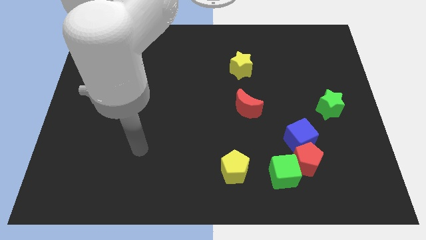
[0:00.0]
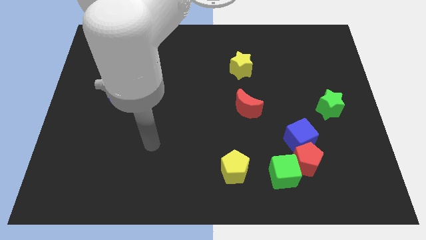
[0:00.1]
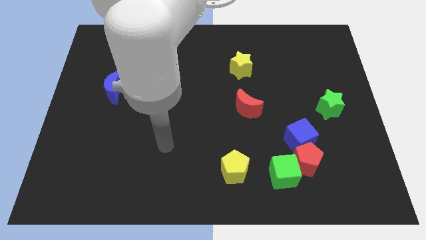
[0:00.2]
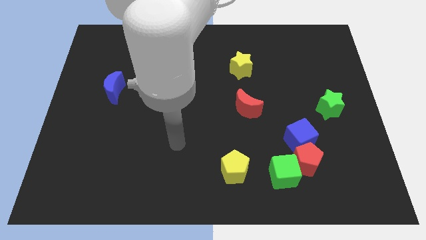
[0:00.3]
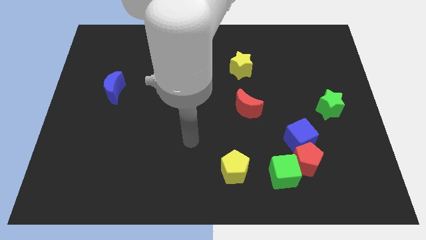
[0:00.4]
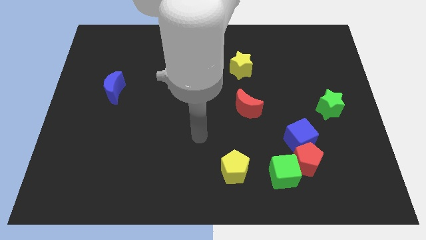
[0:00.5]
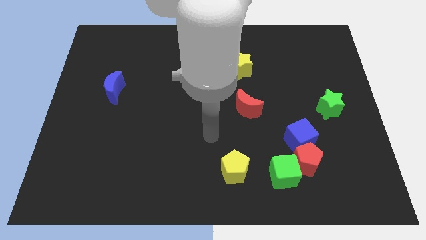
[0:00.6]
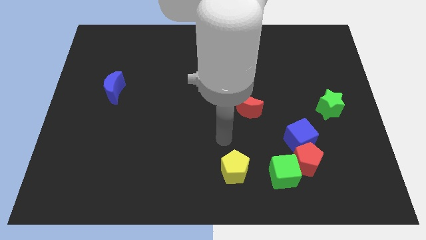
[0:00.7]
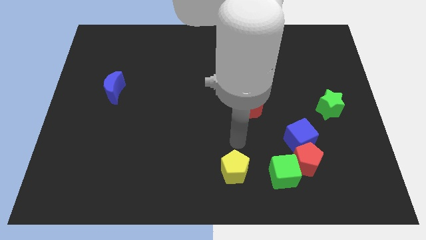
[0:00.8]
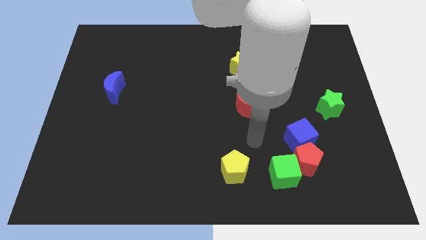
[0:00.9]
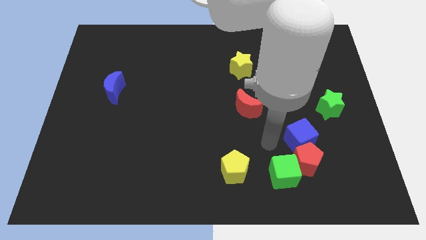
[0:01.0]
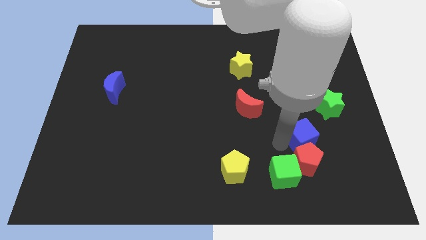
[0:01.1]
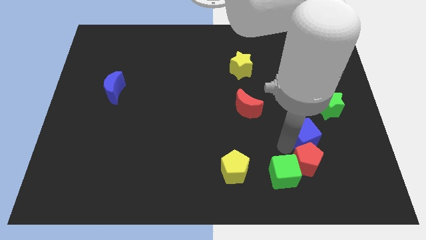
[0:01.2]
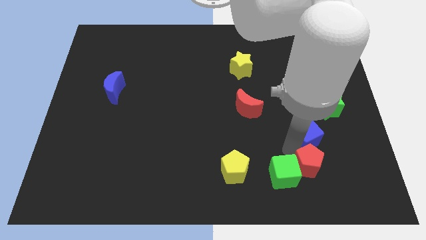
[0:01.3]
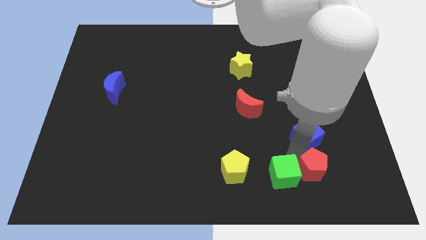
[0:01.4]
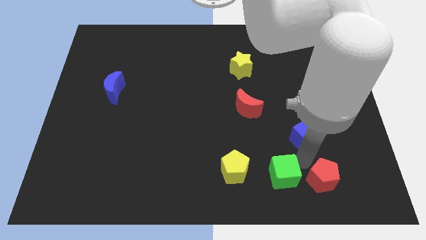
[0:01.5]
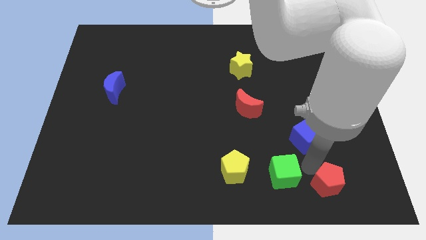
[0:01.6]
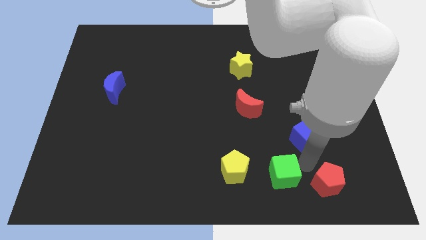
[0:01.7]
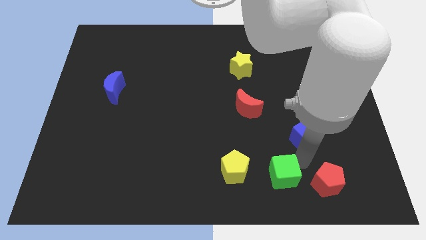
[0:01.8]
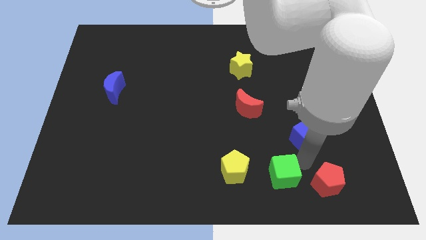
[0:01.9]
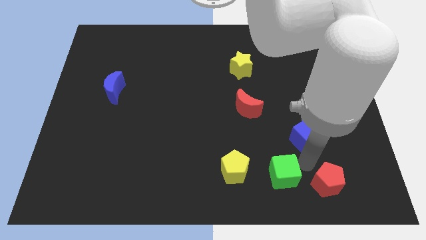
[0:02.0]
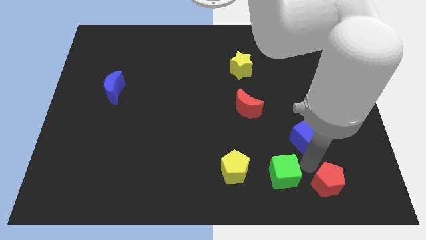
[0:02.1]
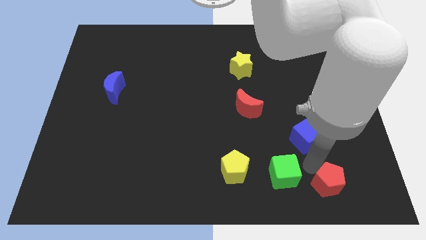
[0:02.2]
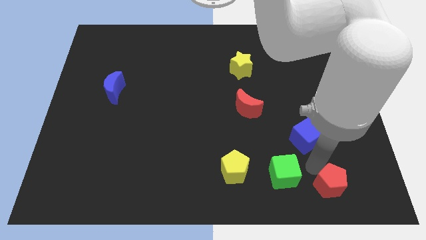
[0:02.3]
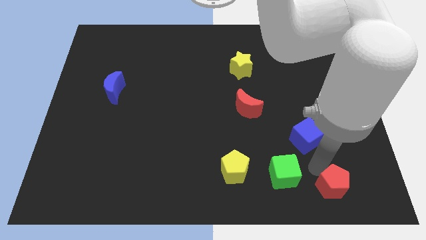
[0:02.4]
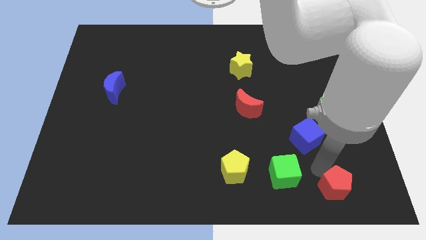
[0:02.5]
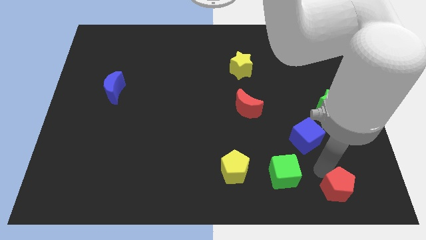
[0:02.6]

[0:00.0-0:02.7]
pull the red pentagon apart from the blue cube and green cube

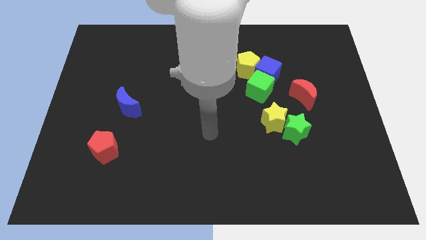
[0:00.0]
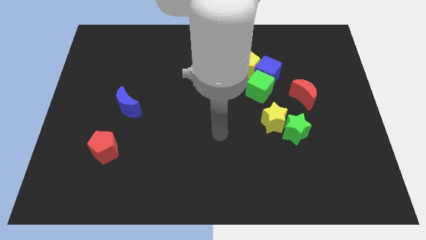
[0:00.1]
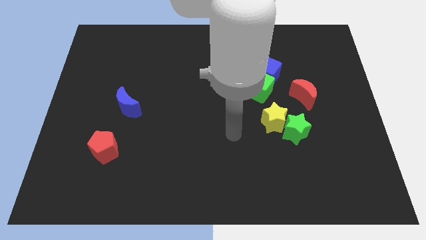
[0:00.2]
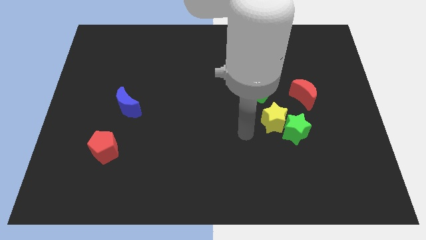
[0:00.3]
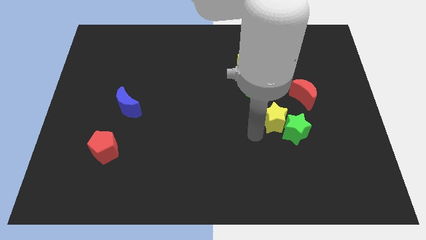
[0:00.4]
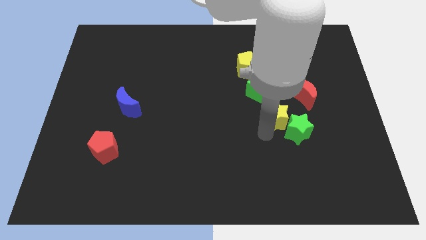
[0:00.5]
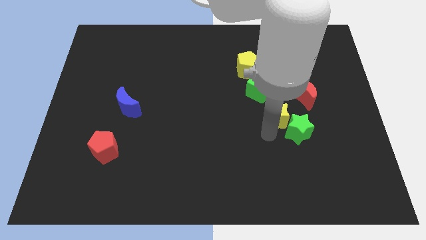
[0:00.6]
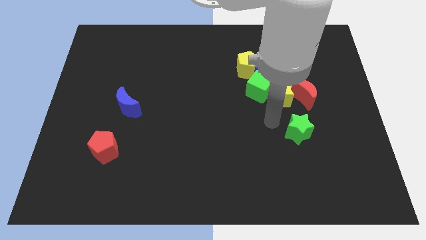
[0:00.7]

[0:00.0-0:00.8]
separate the green star from the yellow star

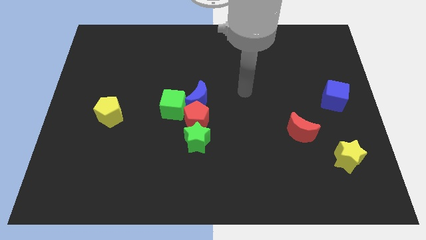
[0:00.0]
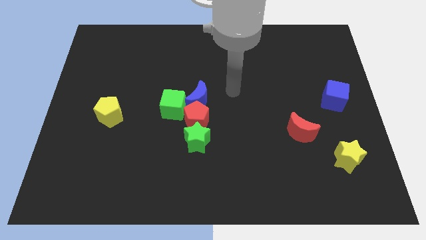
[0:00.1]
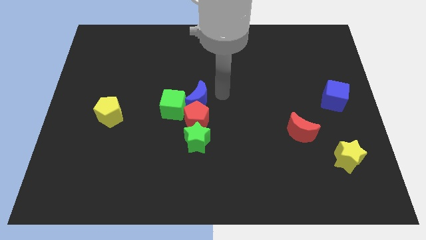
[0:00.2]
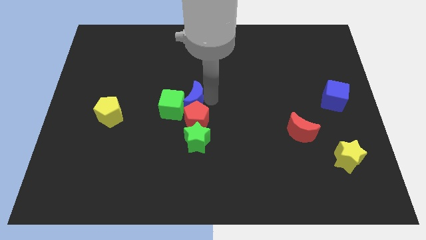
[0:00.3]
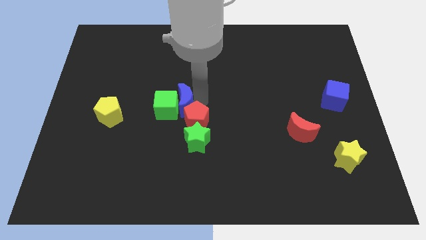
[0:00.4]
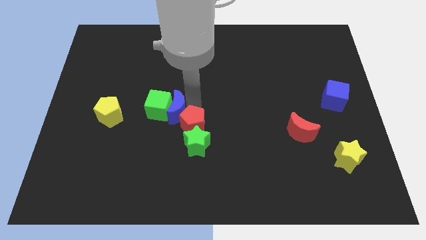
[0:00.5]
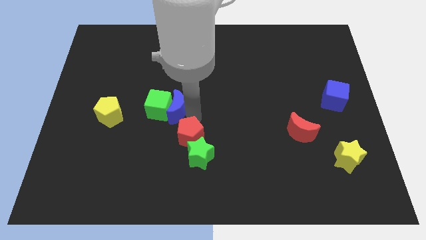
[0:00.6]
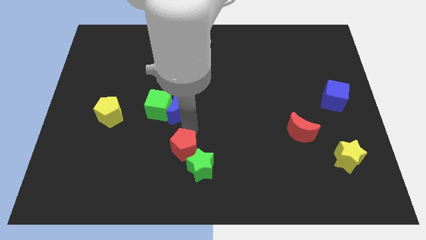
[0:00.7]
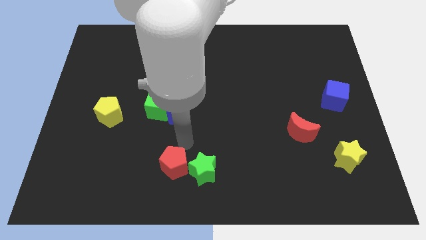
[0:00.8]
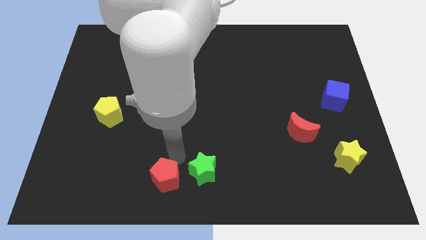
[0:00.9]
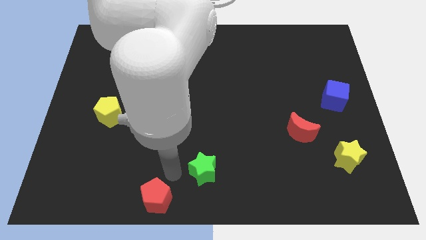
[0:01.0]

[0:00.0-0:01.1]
move the green star away from the red pentagon

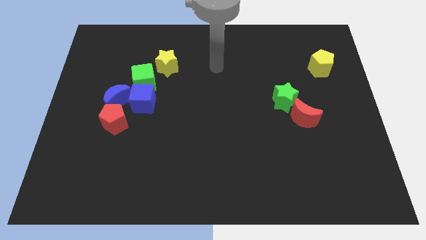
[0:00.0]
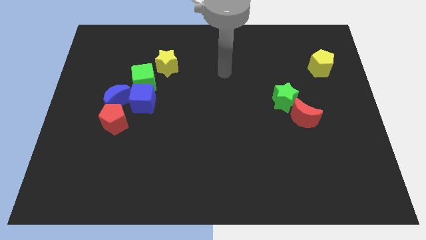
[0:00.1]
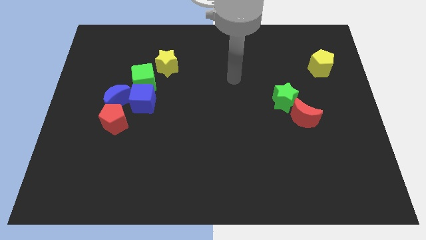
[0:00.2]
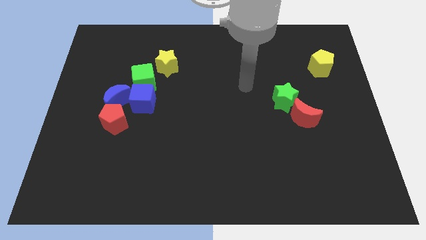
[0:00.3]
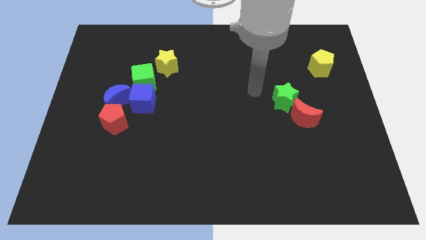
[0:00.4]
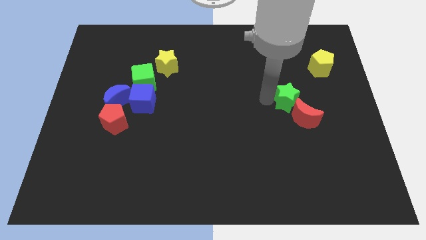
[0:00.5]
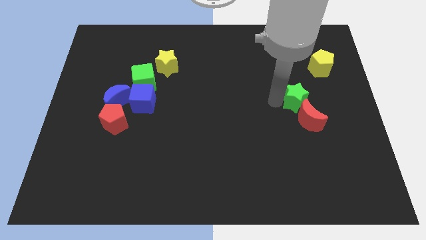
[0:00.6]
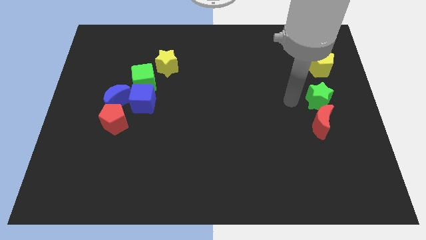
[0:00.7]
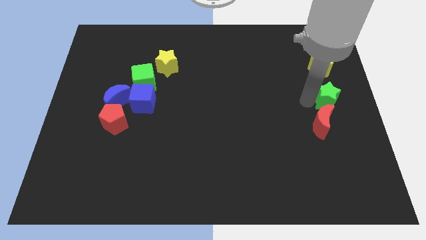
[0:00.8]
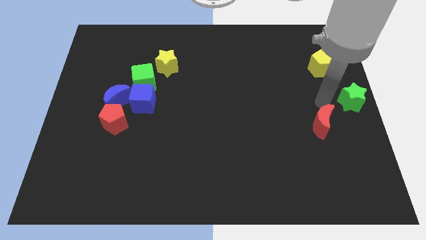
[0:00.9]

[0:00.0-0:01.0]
separate the red moon from the green star

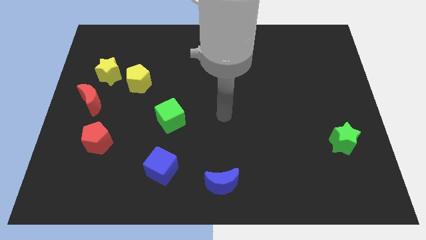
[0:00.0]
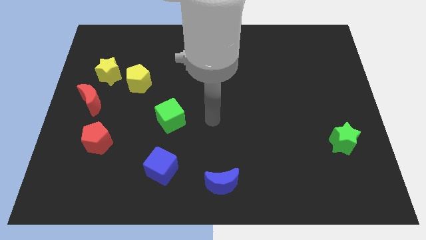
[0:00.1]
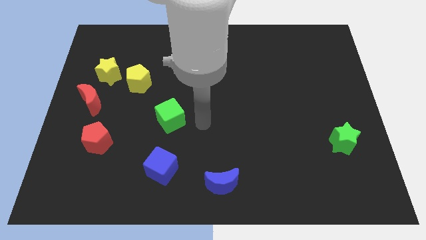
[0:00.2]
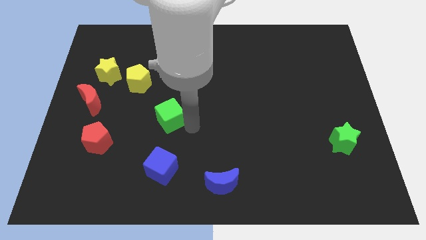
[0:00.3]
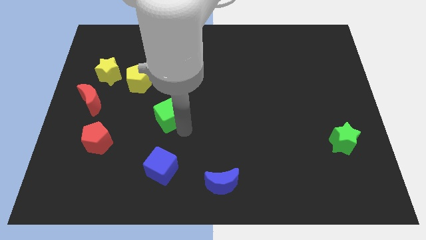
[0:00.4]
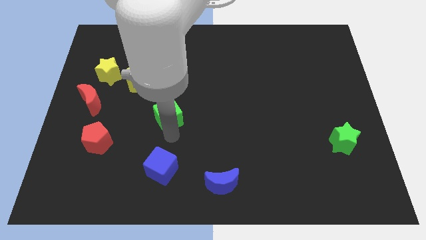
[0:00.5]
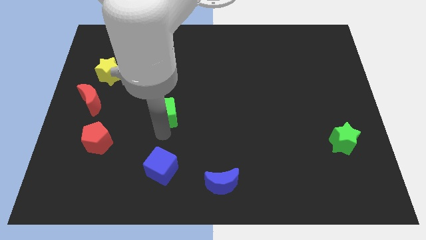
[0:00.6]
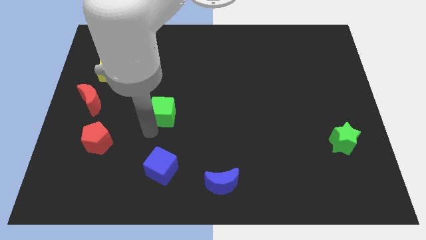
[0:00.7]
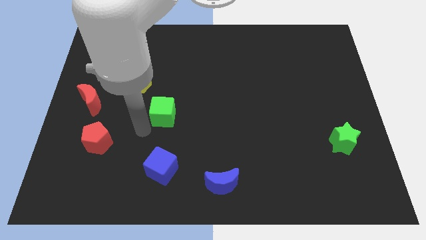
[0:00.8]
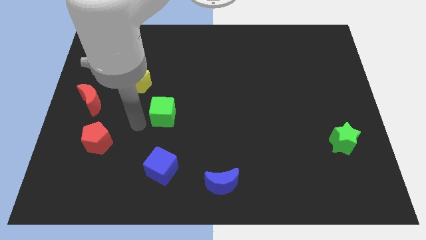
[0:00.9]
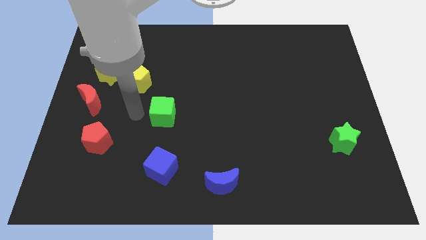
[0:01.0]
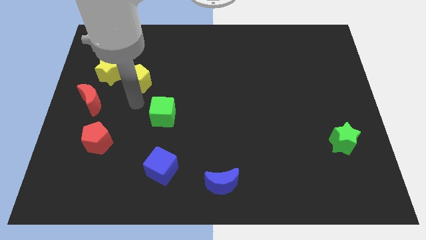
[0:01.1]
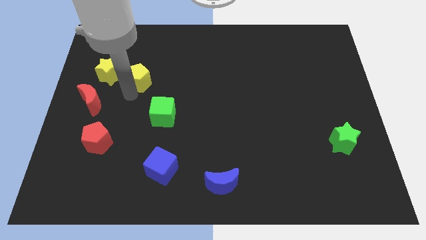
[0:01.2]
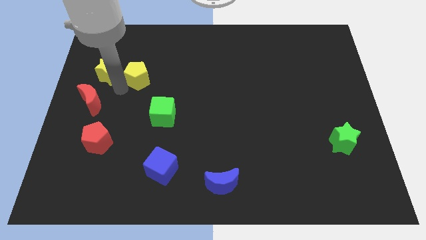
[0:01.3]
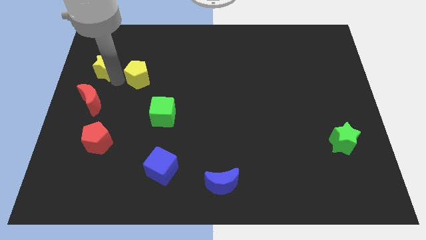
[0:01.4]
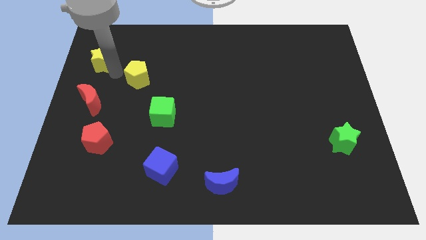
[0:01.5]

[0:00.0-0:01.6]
move the yellow pentagon away from the yellow star

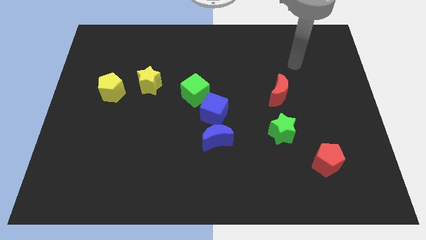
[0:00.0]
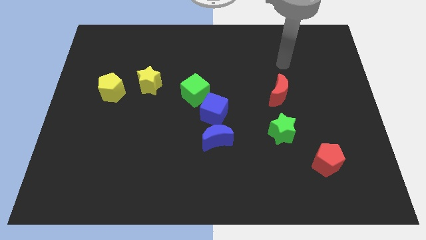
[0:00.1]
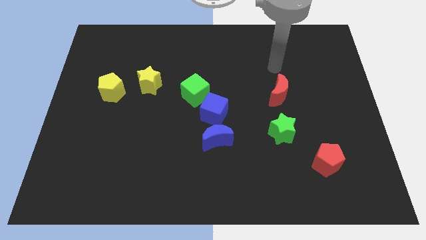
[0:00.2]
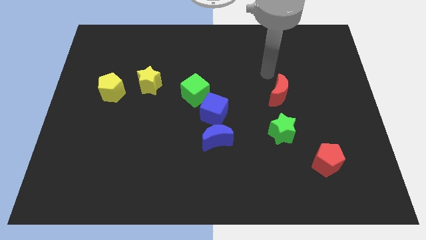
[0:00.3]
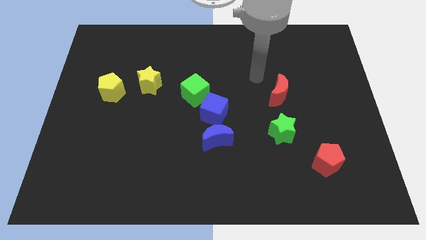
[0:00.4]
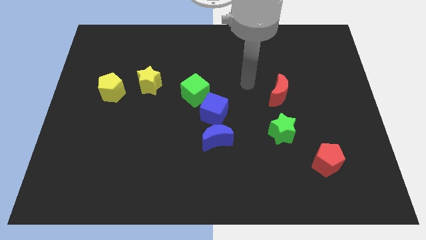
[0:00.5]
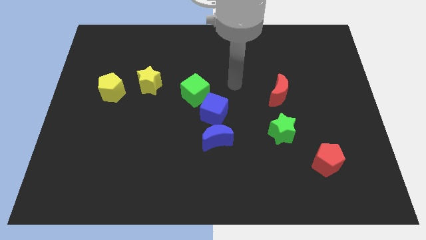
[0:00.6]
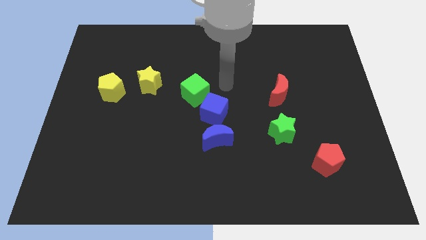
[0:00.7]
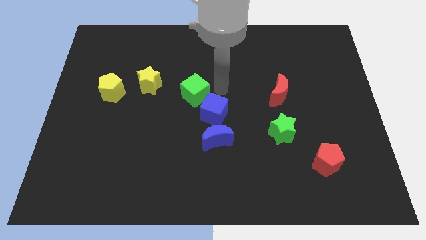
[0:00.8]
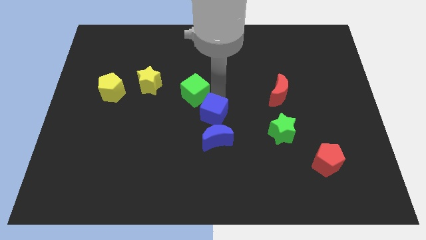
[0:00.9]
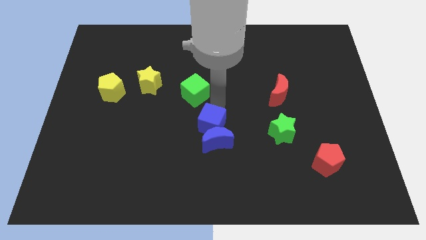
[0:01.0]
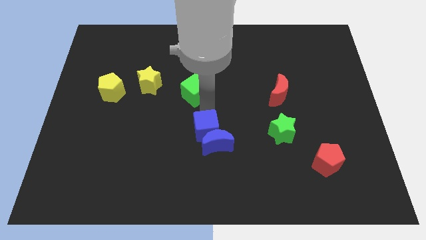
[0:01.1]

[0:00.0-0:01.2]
move the green cube away from the blue cube

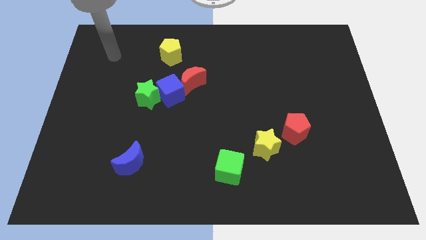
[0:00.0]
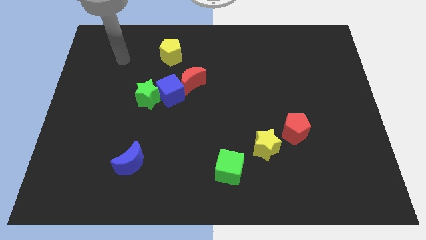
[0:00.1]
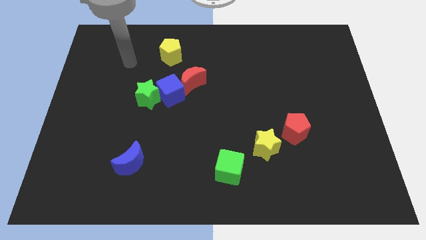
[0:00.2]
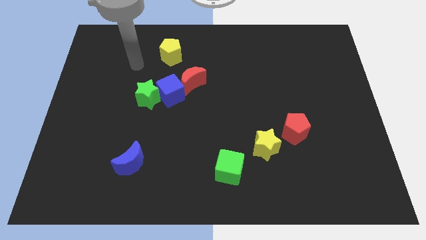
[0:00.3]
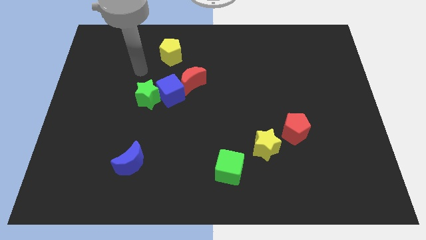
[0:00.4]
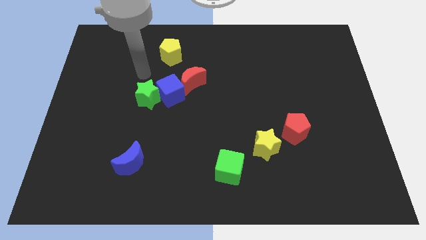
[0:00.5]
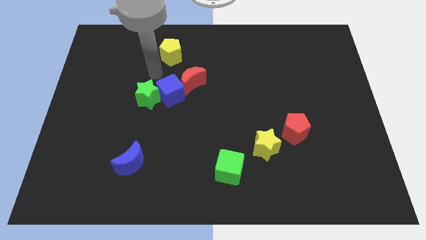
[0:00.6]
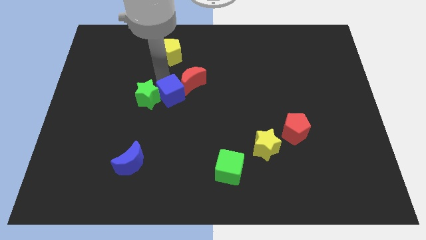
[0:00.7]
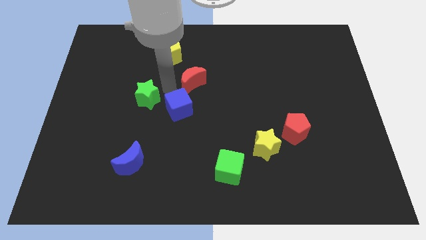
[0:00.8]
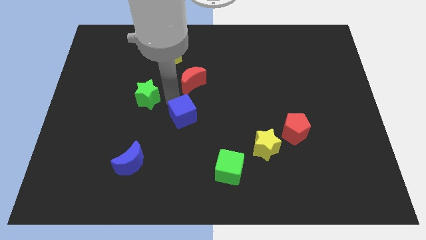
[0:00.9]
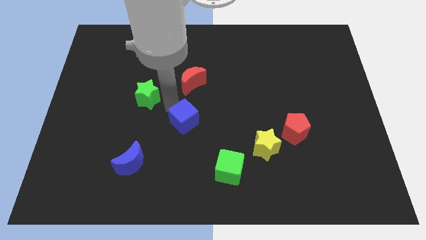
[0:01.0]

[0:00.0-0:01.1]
pull the green star apart from the blue cube
